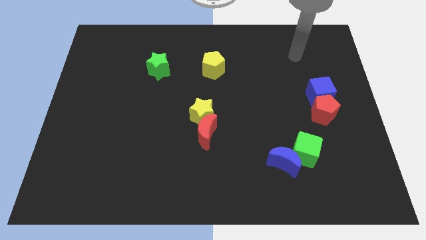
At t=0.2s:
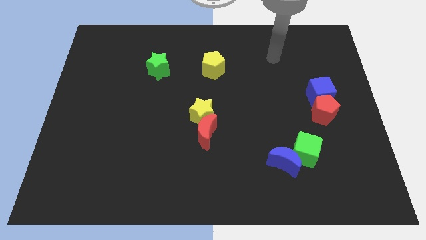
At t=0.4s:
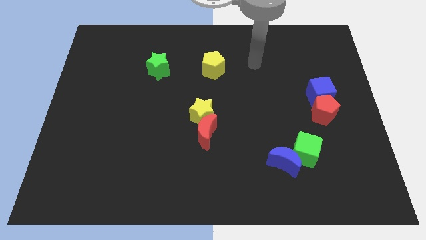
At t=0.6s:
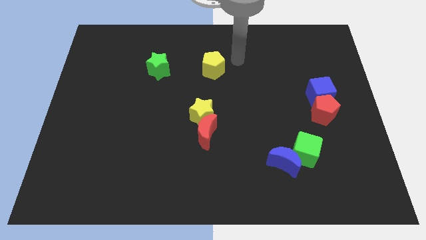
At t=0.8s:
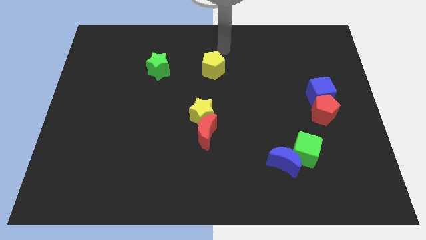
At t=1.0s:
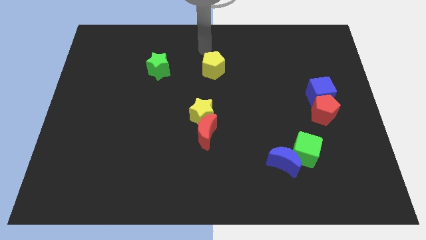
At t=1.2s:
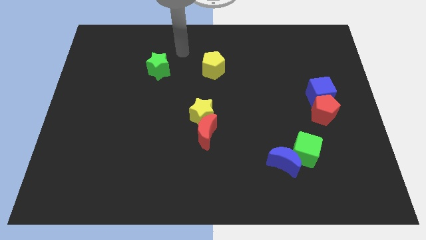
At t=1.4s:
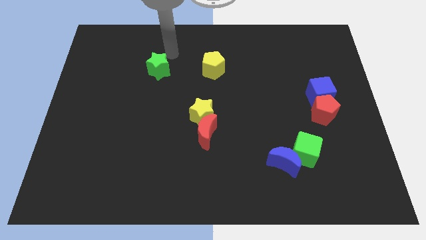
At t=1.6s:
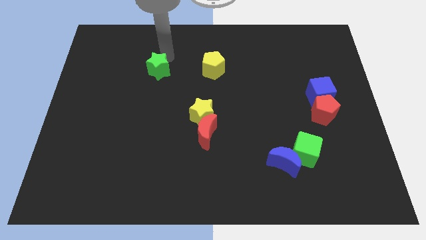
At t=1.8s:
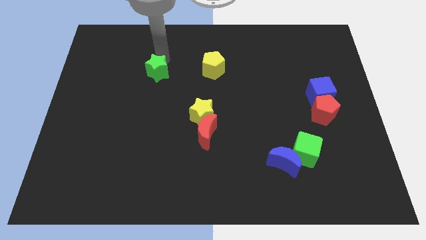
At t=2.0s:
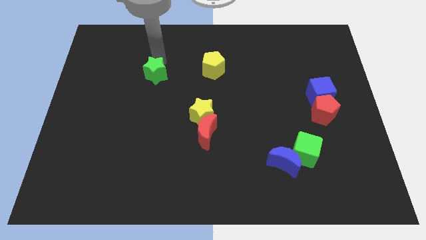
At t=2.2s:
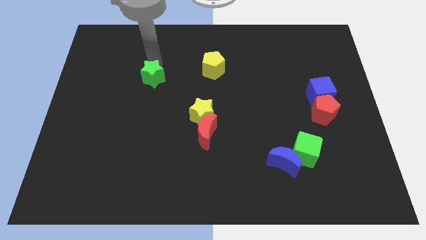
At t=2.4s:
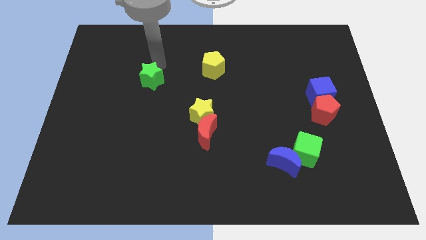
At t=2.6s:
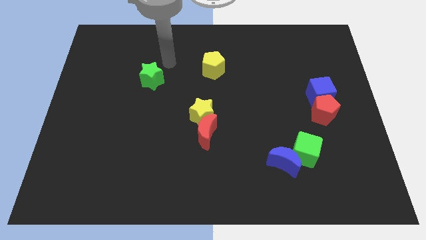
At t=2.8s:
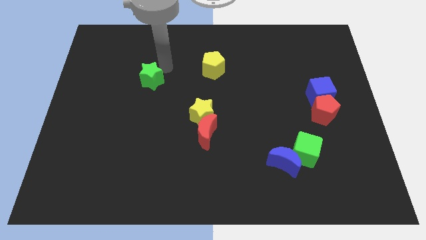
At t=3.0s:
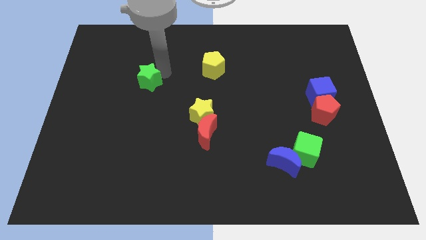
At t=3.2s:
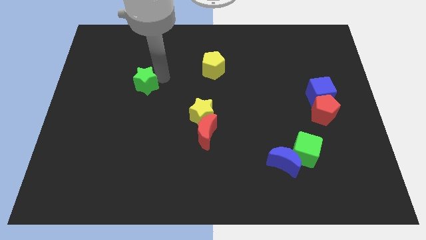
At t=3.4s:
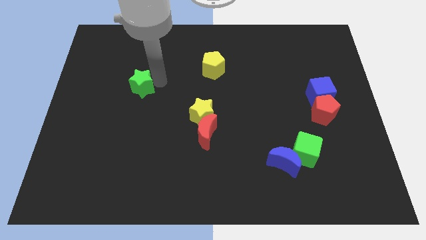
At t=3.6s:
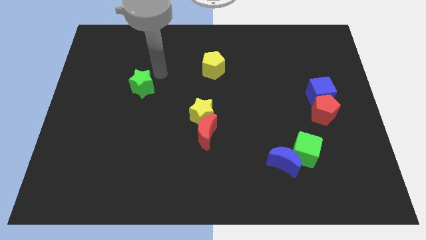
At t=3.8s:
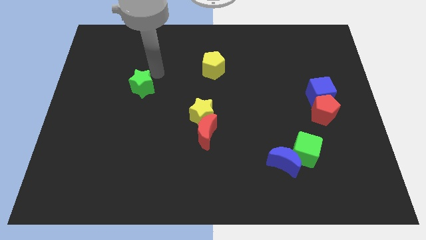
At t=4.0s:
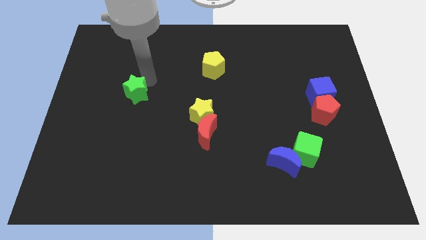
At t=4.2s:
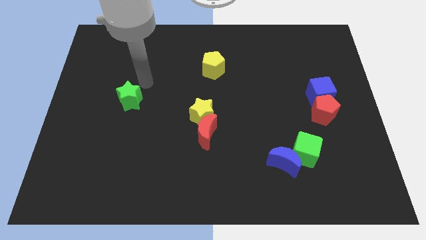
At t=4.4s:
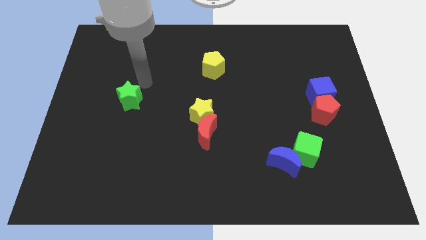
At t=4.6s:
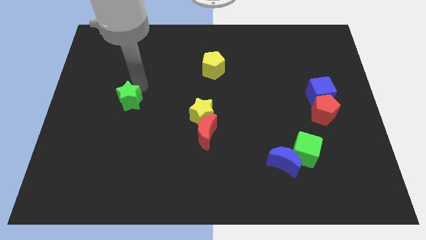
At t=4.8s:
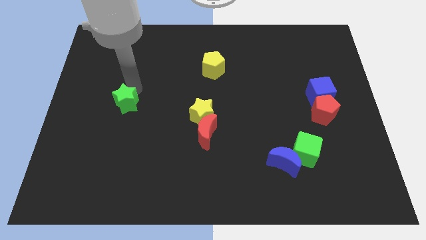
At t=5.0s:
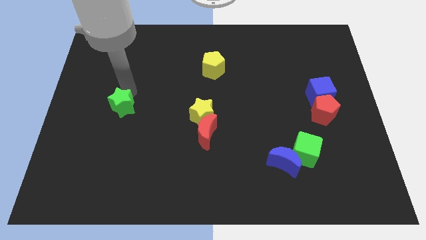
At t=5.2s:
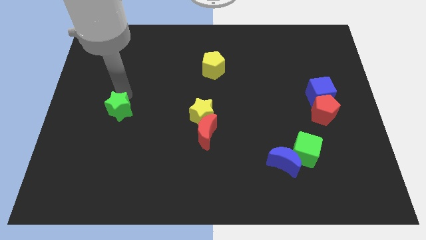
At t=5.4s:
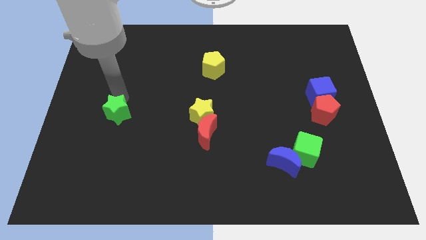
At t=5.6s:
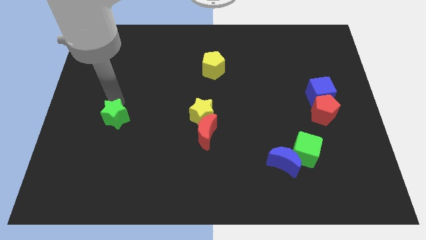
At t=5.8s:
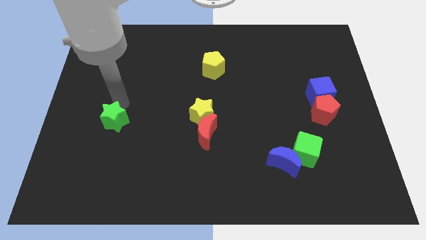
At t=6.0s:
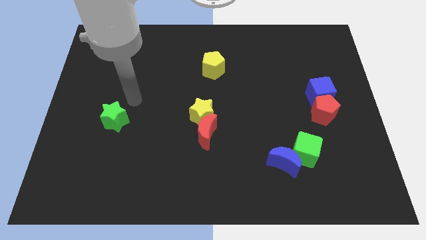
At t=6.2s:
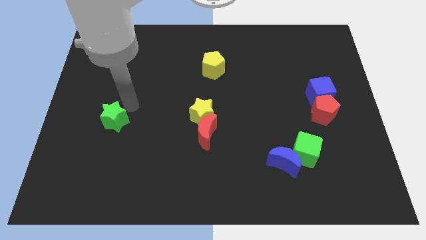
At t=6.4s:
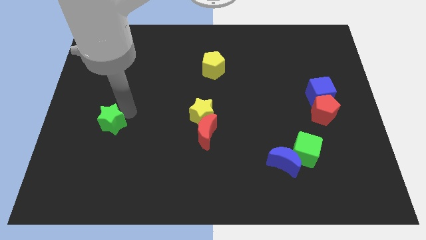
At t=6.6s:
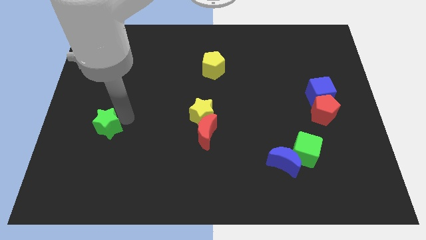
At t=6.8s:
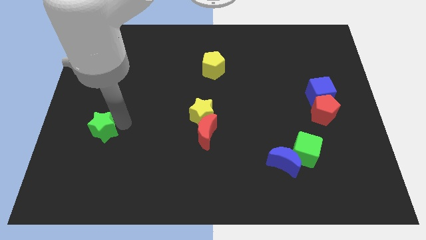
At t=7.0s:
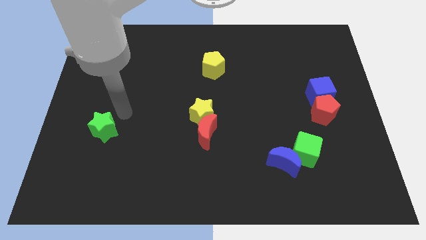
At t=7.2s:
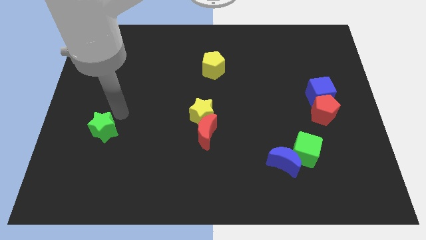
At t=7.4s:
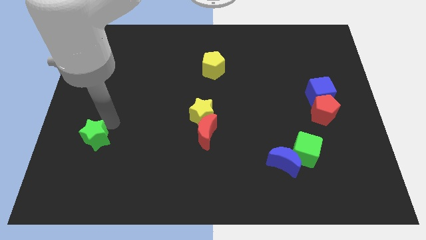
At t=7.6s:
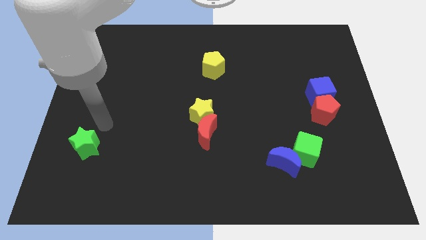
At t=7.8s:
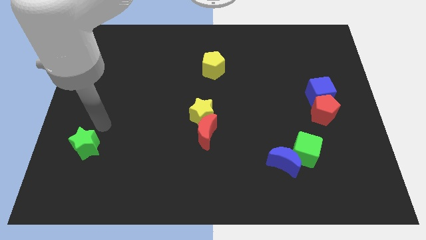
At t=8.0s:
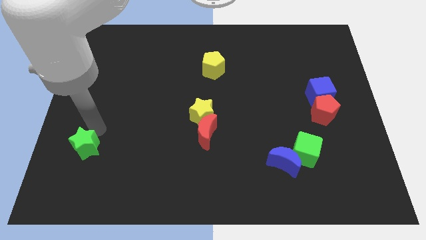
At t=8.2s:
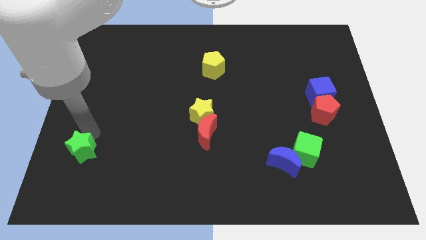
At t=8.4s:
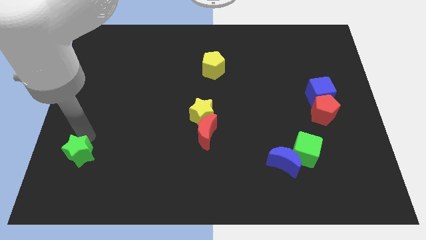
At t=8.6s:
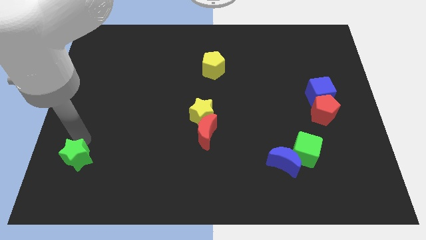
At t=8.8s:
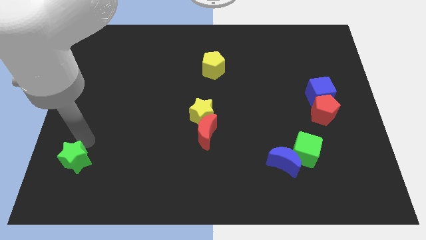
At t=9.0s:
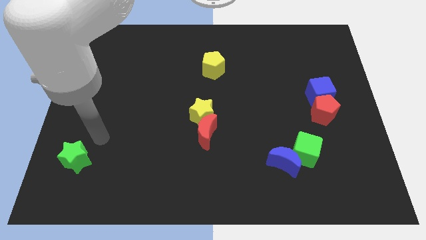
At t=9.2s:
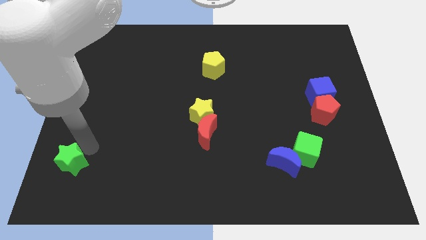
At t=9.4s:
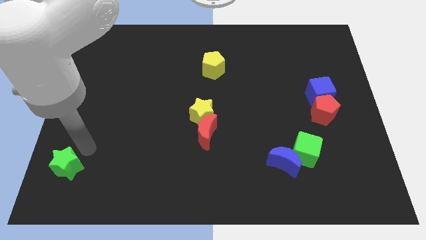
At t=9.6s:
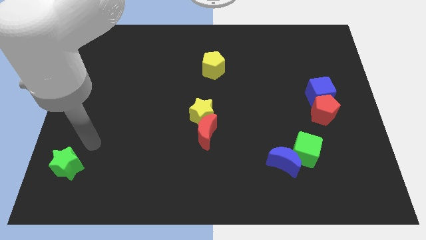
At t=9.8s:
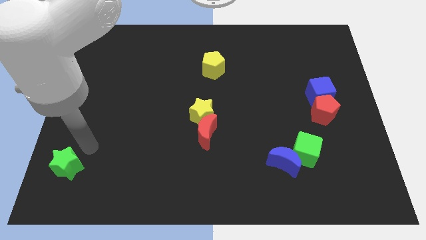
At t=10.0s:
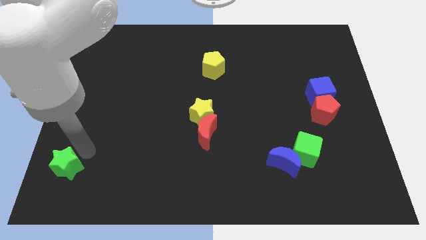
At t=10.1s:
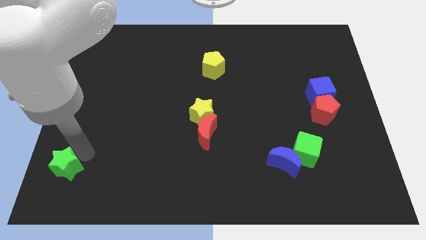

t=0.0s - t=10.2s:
put the green star to the bottom left corner
